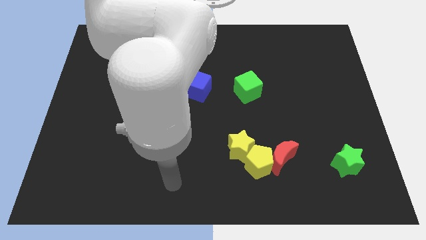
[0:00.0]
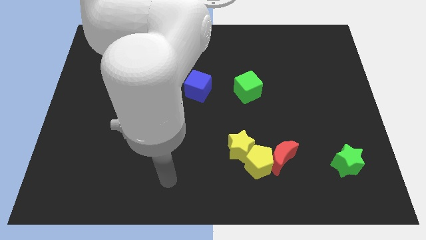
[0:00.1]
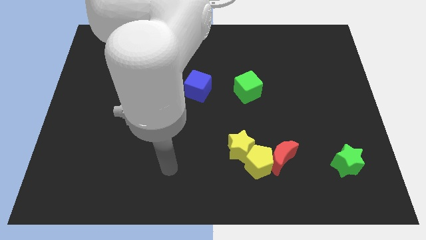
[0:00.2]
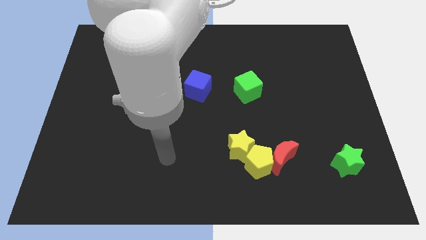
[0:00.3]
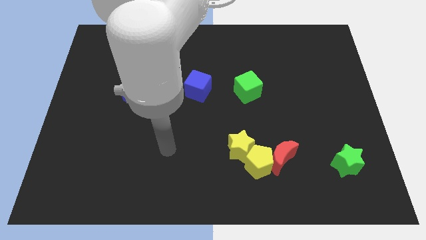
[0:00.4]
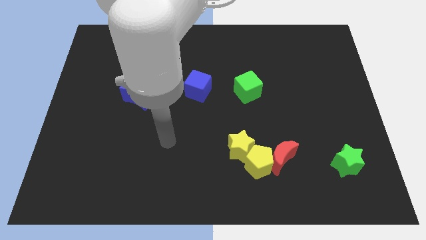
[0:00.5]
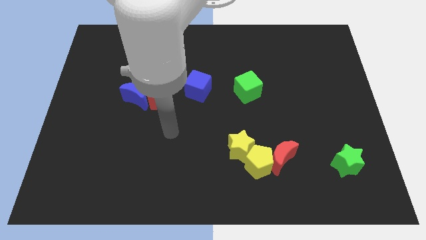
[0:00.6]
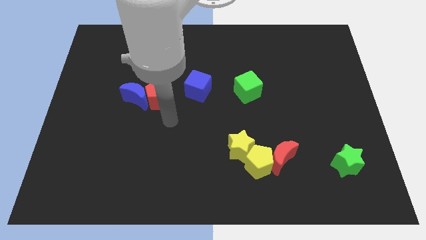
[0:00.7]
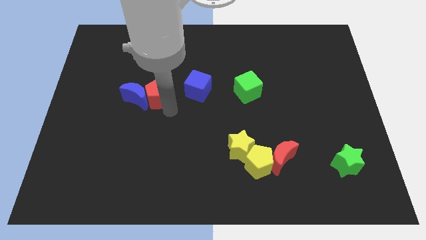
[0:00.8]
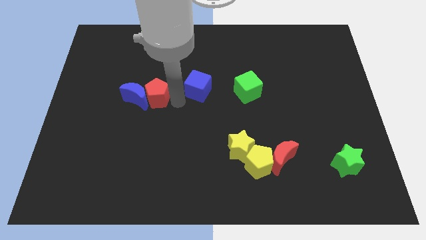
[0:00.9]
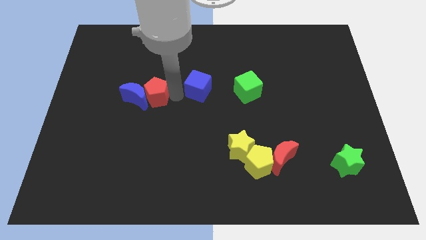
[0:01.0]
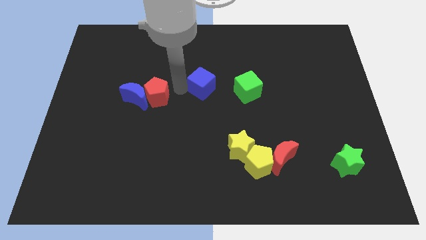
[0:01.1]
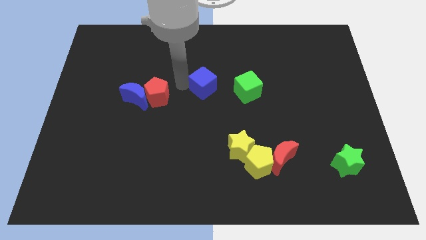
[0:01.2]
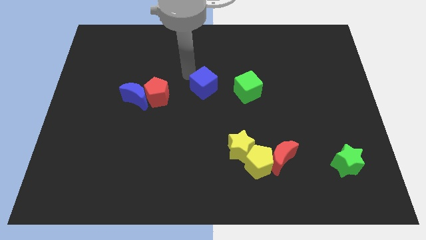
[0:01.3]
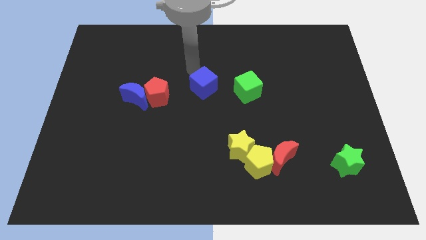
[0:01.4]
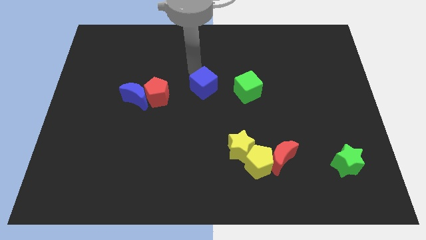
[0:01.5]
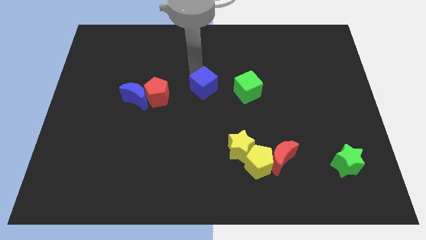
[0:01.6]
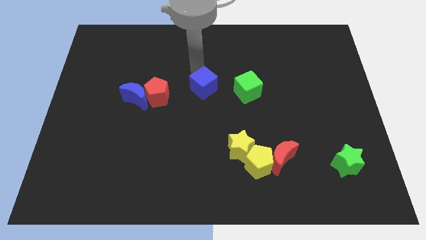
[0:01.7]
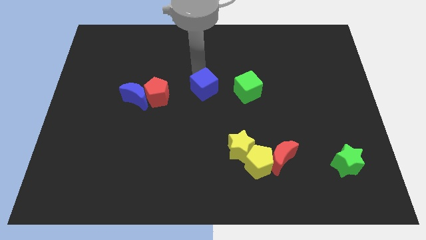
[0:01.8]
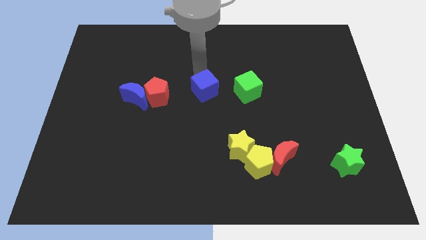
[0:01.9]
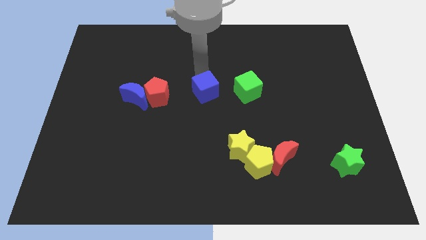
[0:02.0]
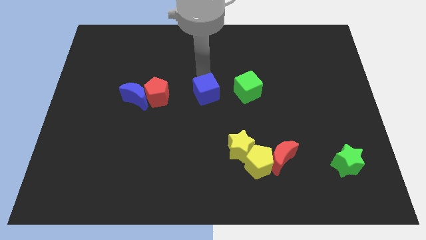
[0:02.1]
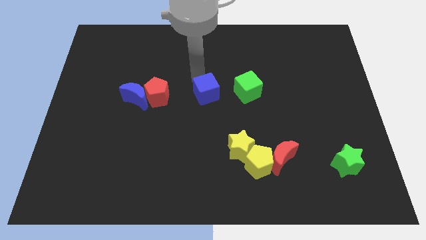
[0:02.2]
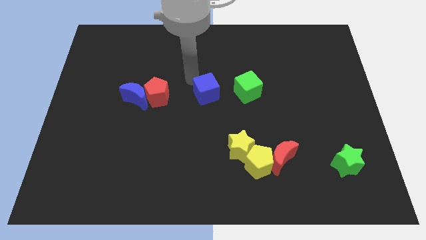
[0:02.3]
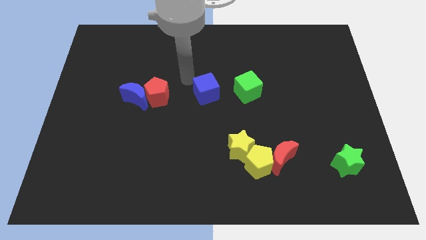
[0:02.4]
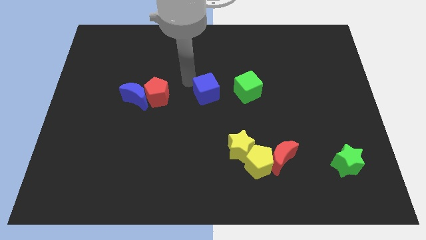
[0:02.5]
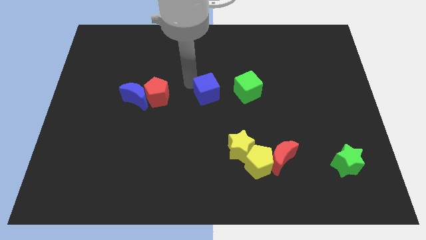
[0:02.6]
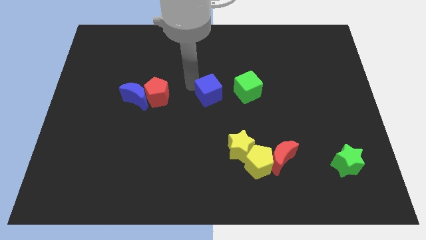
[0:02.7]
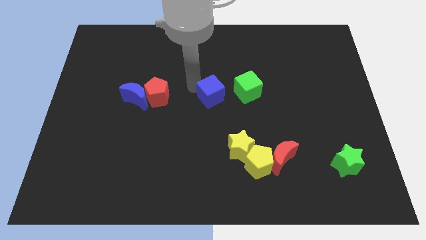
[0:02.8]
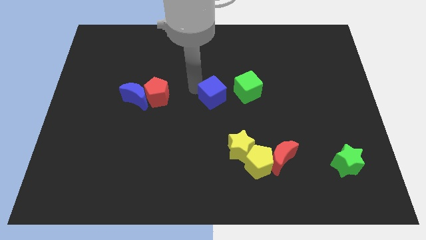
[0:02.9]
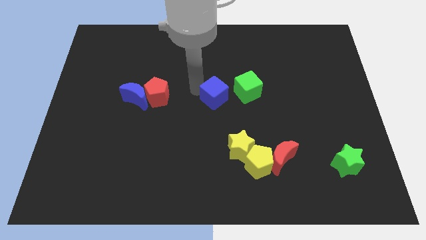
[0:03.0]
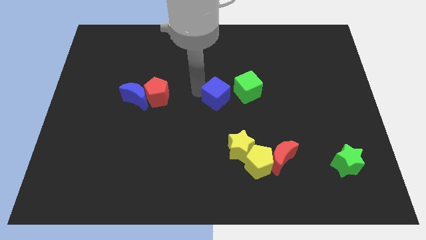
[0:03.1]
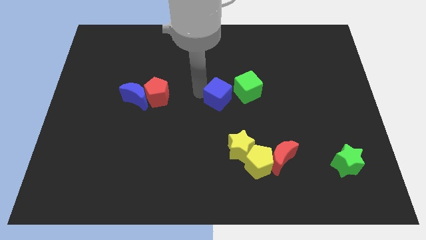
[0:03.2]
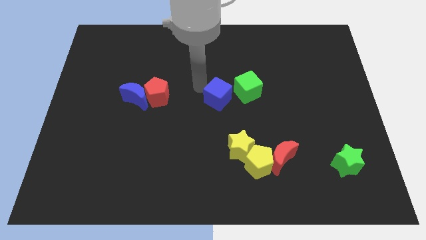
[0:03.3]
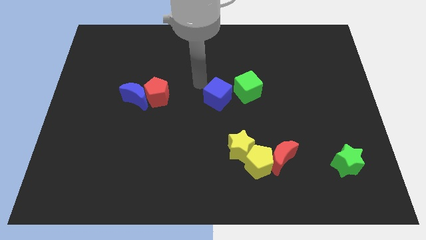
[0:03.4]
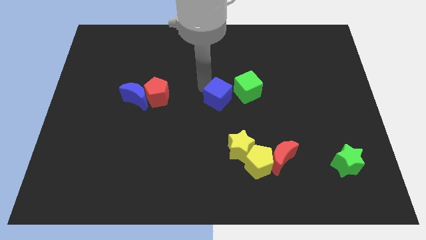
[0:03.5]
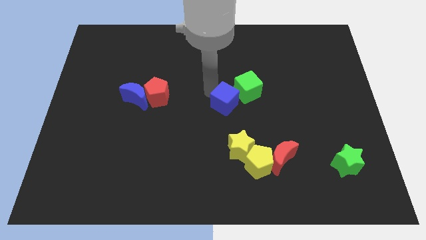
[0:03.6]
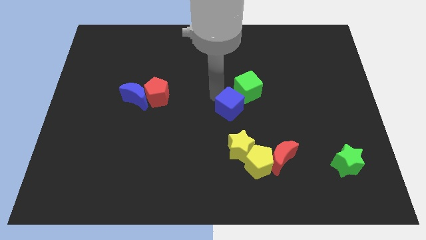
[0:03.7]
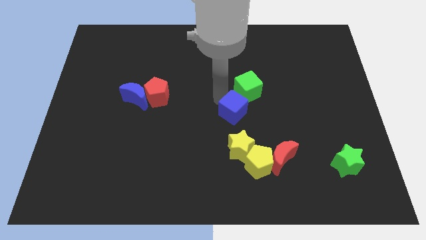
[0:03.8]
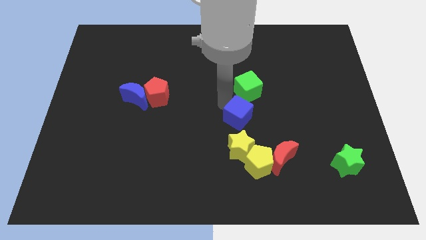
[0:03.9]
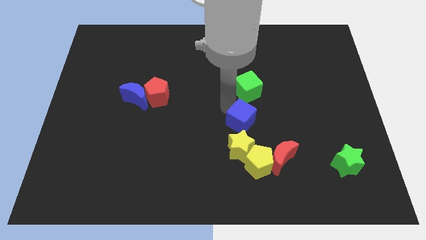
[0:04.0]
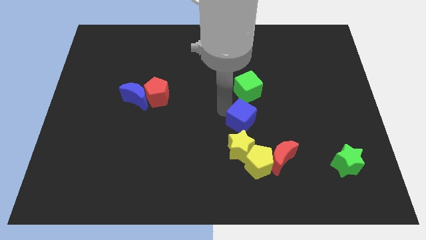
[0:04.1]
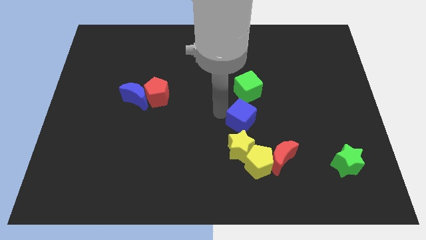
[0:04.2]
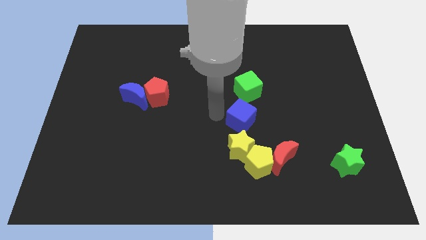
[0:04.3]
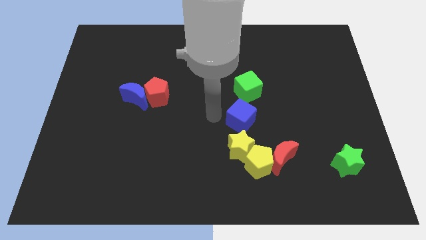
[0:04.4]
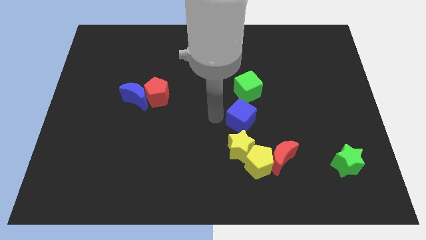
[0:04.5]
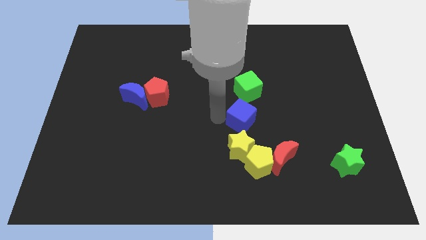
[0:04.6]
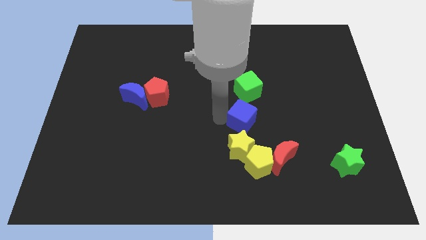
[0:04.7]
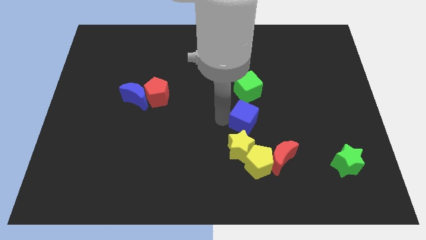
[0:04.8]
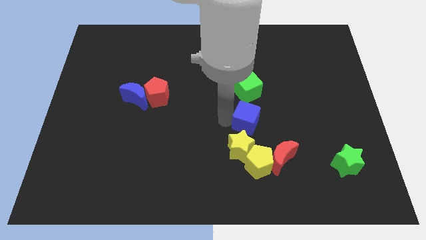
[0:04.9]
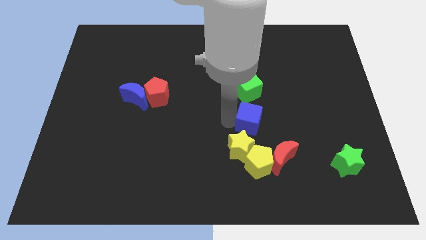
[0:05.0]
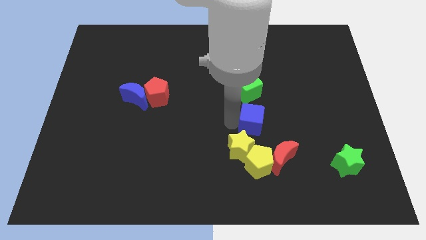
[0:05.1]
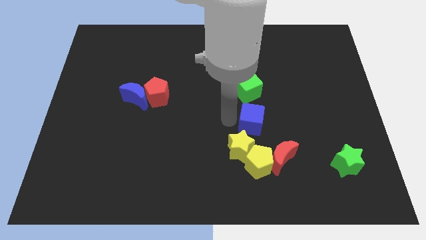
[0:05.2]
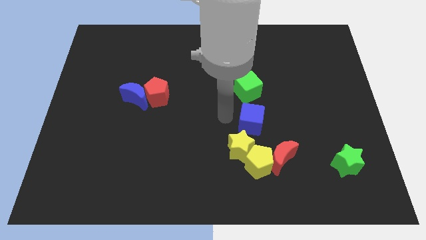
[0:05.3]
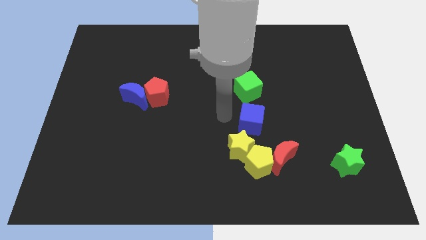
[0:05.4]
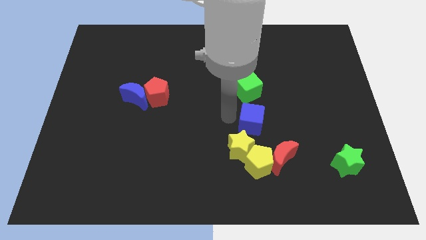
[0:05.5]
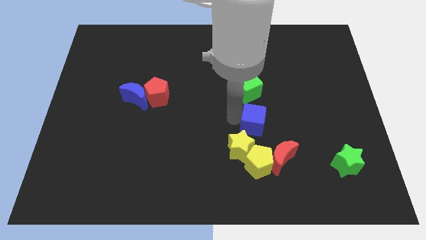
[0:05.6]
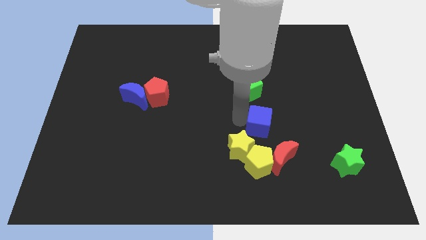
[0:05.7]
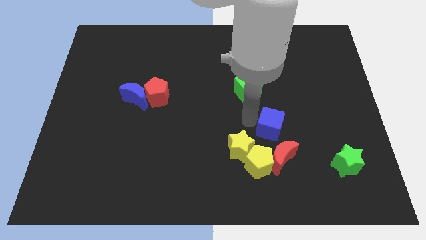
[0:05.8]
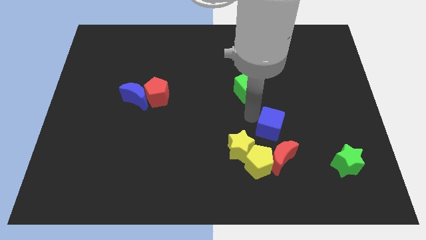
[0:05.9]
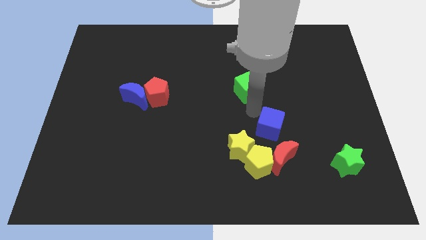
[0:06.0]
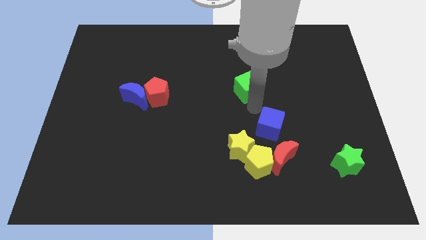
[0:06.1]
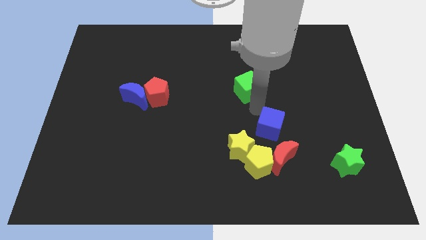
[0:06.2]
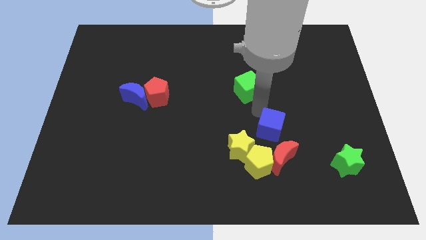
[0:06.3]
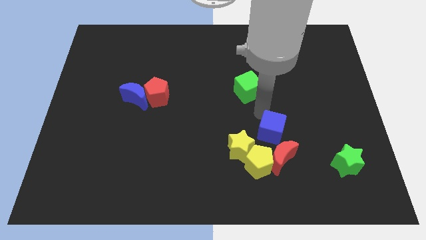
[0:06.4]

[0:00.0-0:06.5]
slide the blue cube right of the yellow star

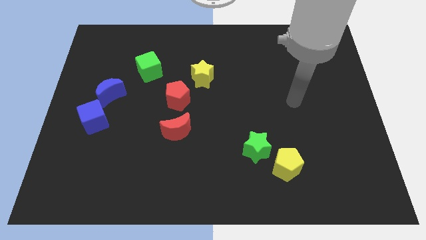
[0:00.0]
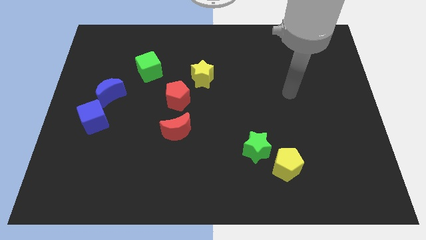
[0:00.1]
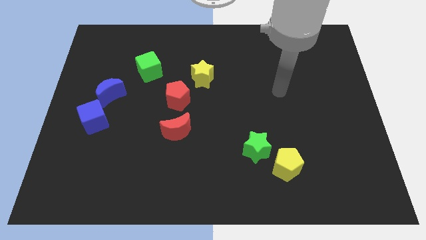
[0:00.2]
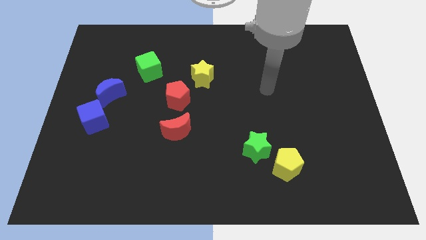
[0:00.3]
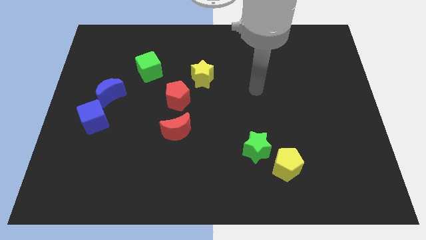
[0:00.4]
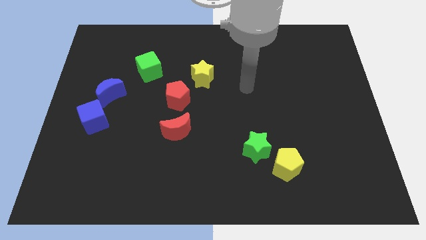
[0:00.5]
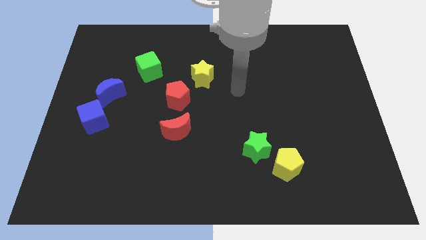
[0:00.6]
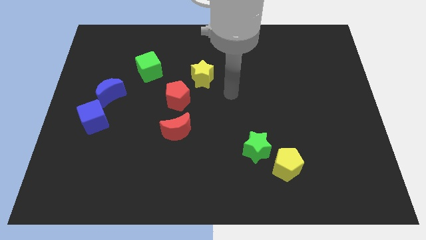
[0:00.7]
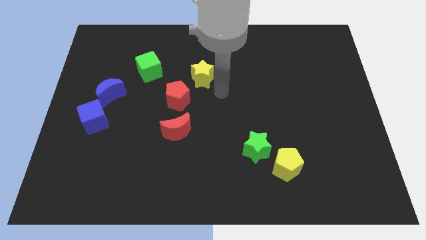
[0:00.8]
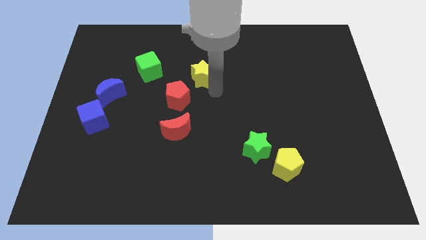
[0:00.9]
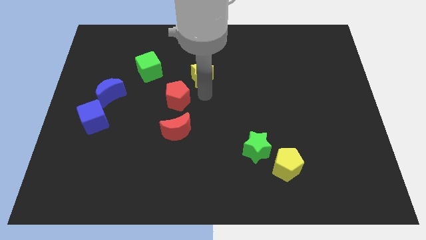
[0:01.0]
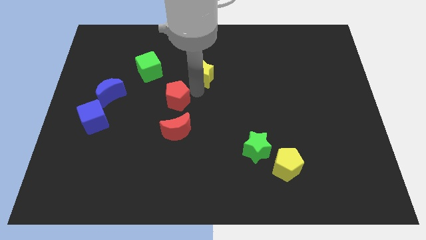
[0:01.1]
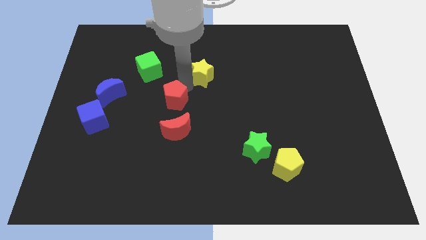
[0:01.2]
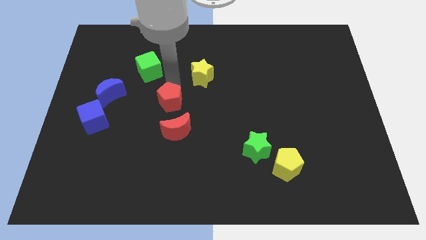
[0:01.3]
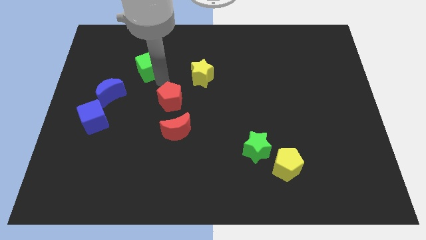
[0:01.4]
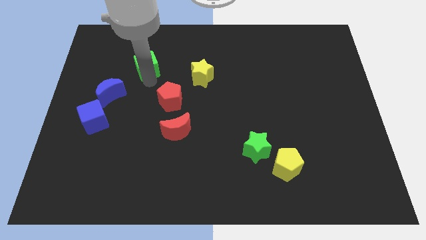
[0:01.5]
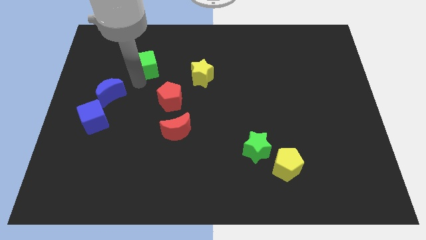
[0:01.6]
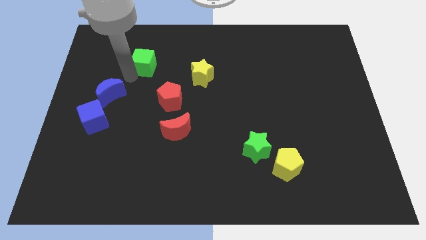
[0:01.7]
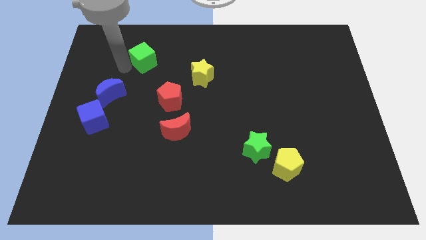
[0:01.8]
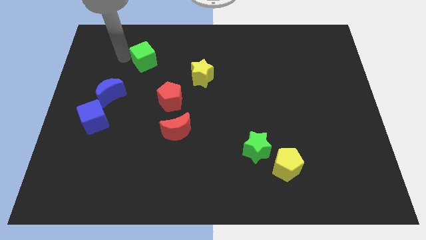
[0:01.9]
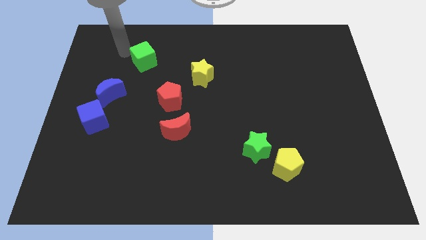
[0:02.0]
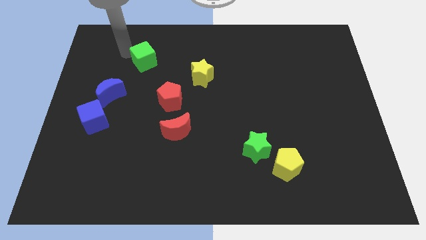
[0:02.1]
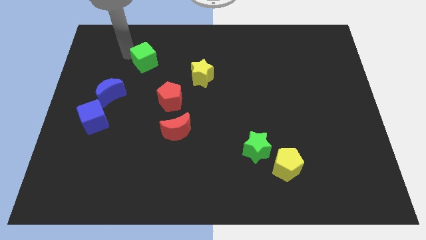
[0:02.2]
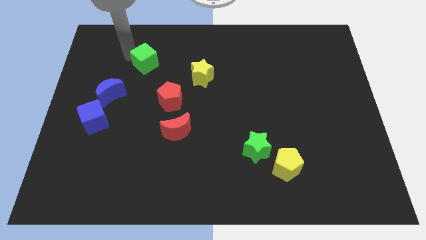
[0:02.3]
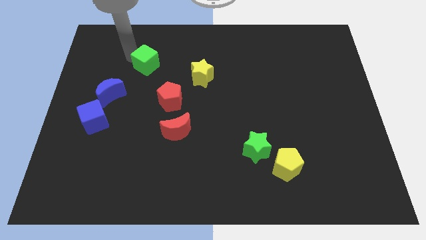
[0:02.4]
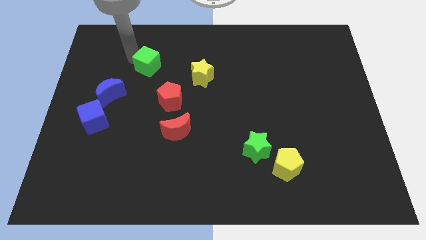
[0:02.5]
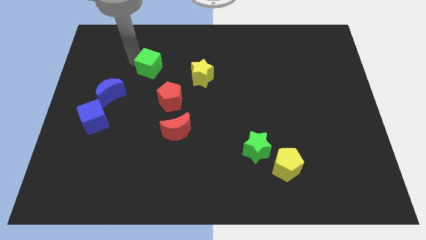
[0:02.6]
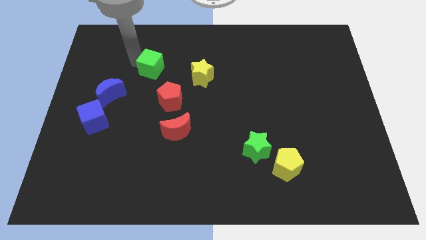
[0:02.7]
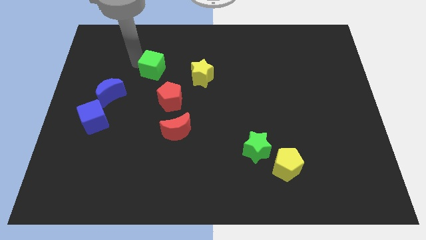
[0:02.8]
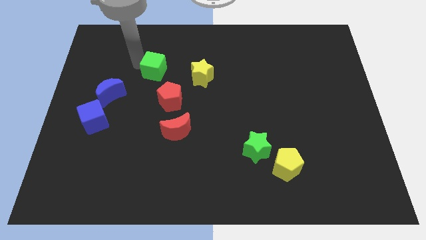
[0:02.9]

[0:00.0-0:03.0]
push the green cube to the top side of the red pentagon
